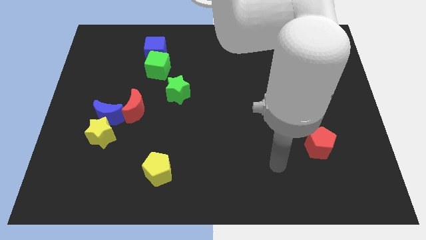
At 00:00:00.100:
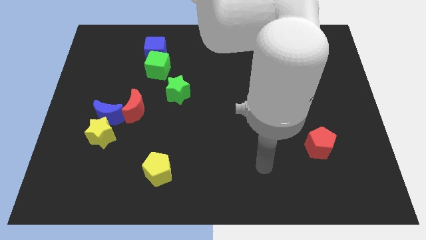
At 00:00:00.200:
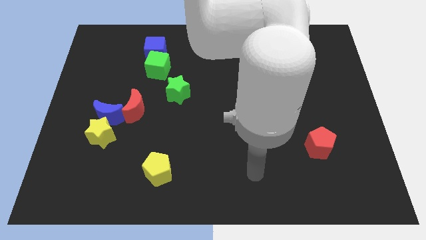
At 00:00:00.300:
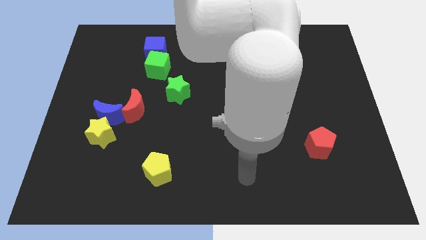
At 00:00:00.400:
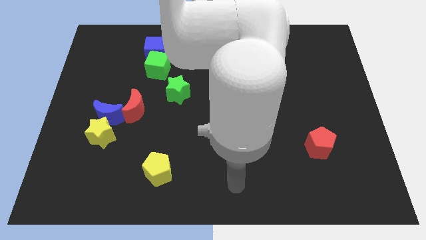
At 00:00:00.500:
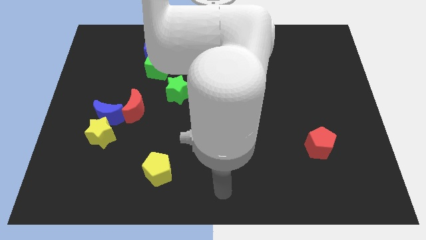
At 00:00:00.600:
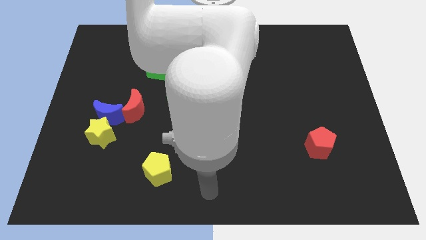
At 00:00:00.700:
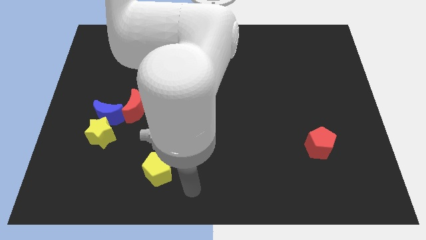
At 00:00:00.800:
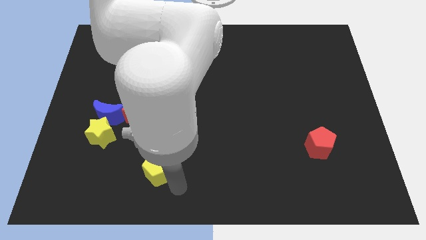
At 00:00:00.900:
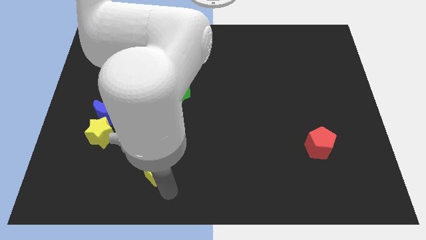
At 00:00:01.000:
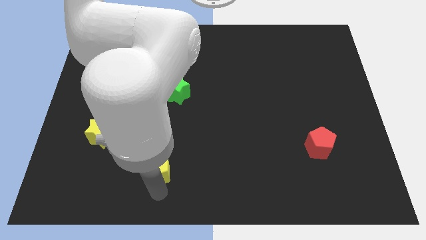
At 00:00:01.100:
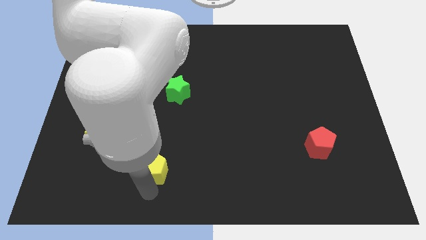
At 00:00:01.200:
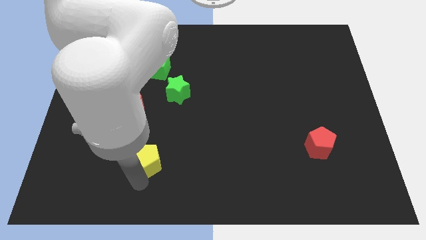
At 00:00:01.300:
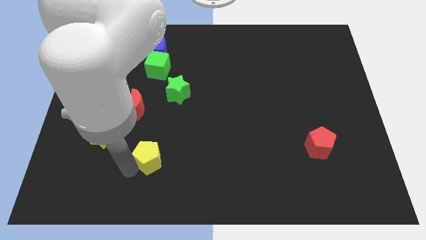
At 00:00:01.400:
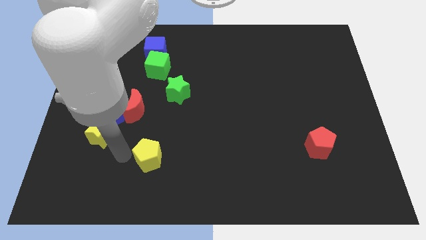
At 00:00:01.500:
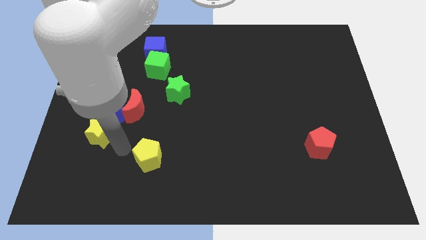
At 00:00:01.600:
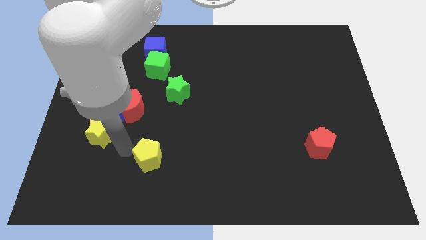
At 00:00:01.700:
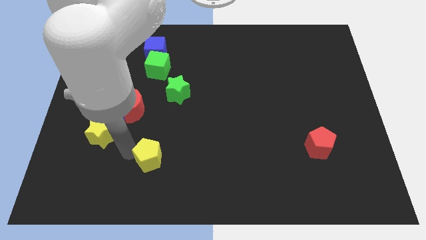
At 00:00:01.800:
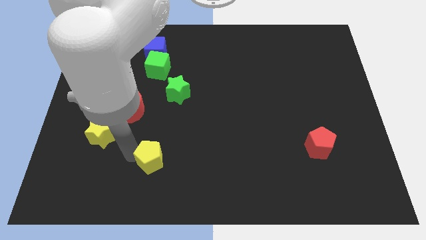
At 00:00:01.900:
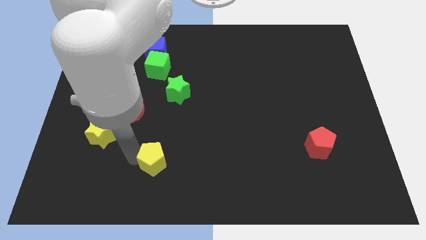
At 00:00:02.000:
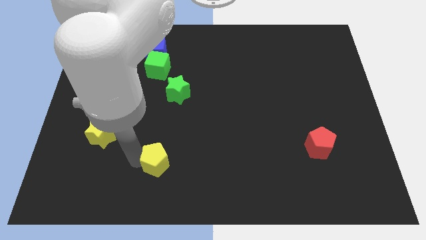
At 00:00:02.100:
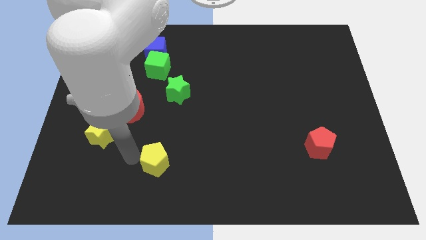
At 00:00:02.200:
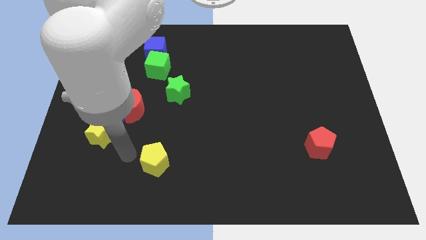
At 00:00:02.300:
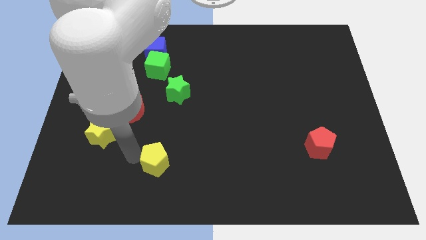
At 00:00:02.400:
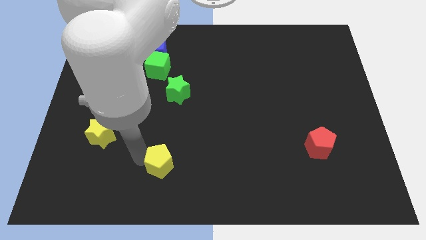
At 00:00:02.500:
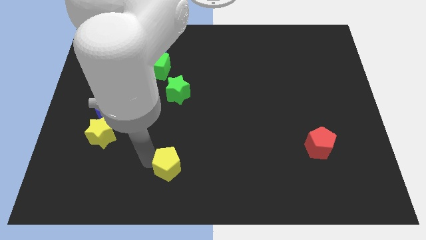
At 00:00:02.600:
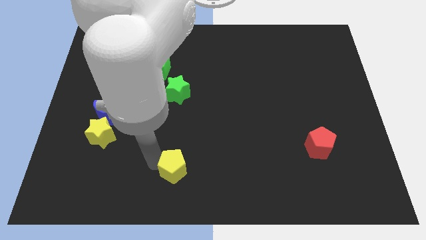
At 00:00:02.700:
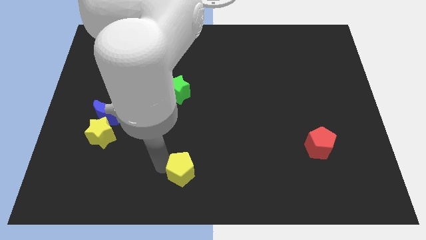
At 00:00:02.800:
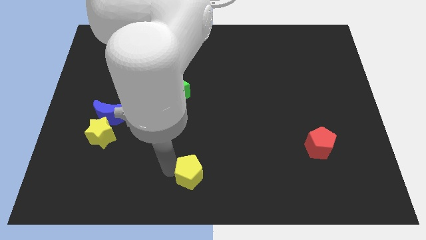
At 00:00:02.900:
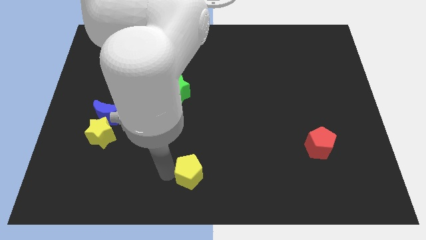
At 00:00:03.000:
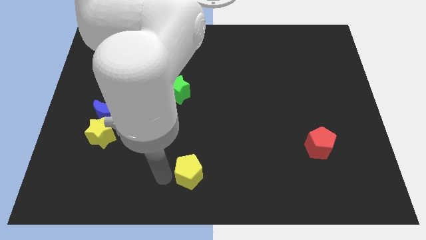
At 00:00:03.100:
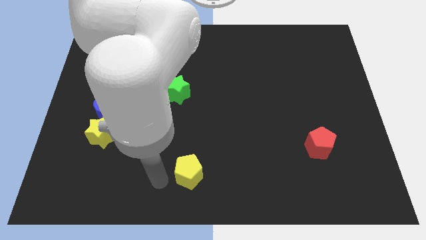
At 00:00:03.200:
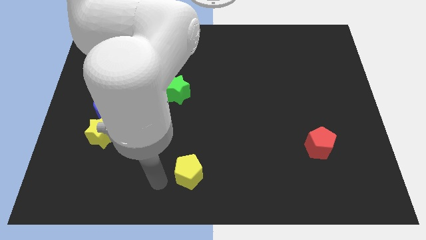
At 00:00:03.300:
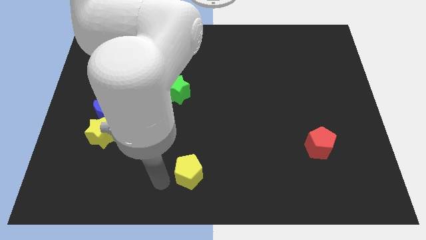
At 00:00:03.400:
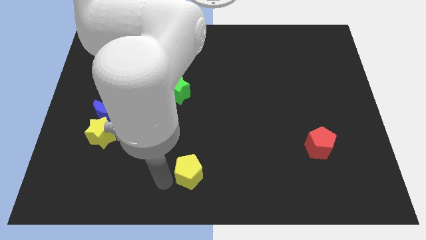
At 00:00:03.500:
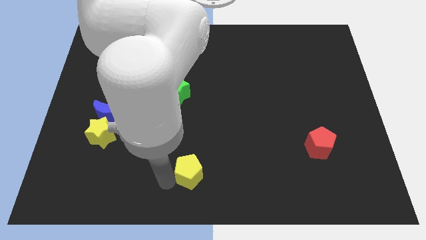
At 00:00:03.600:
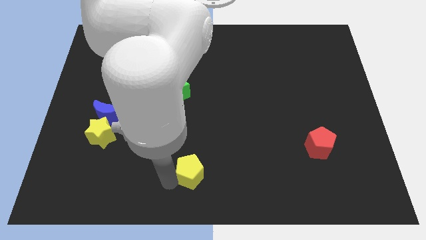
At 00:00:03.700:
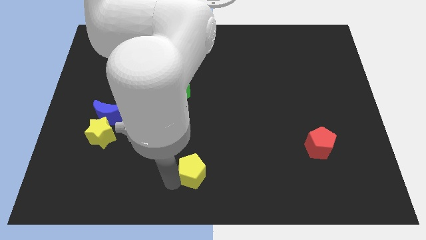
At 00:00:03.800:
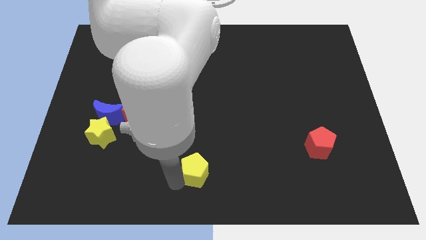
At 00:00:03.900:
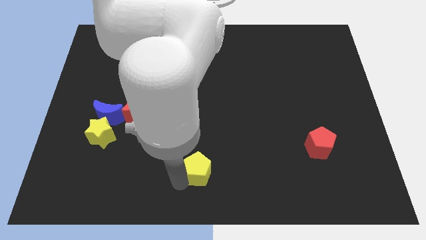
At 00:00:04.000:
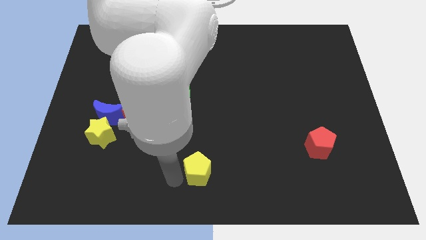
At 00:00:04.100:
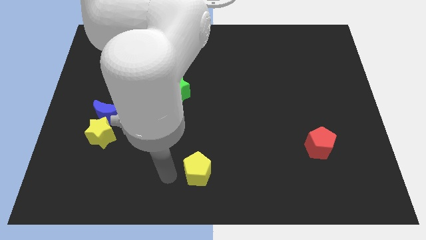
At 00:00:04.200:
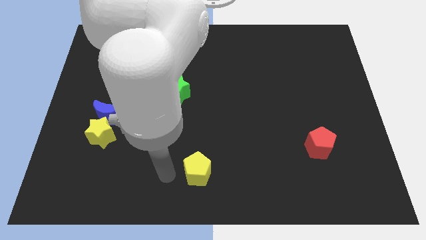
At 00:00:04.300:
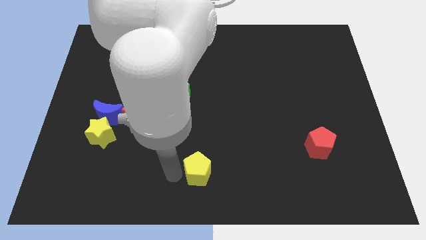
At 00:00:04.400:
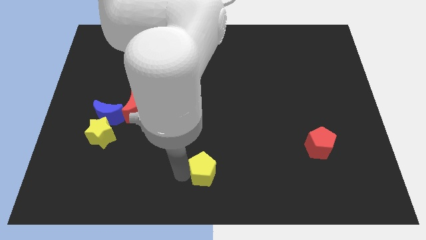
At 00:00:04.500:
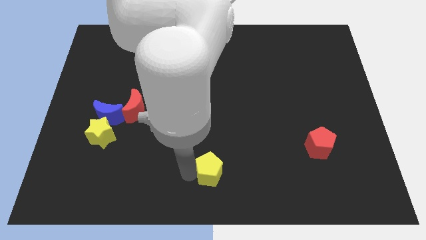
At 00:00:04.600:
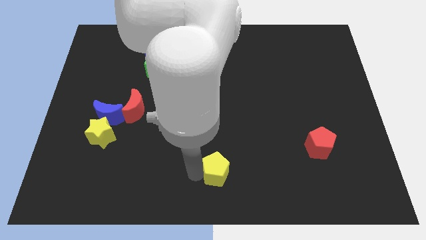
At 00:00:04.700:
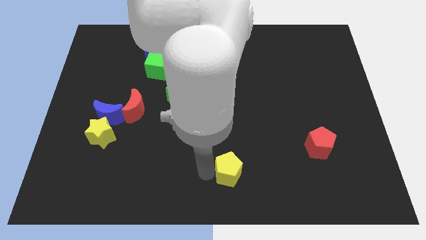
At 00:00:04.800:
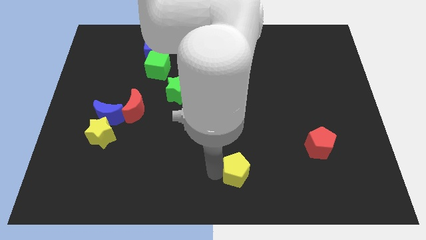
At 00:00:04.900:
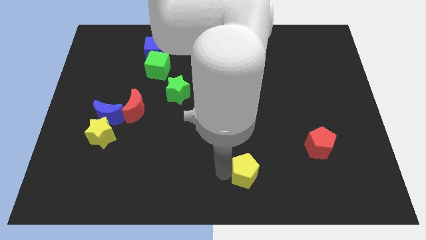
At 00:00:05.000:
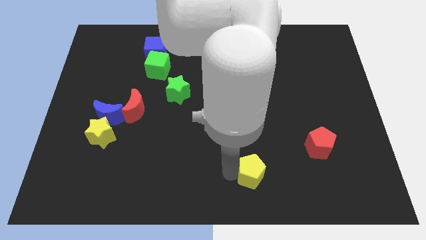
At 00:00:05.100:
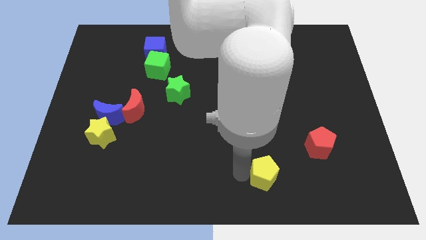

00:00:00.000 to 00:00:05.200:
push the yellow pentagon right

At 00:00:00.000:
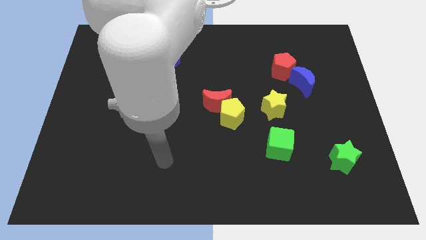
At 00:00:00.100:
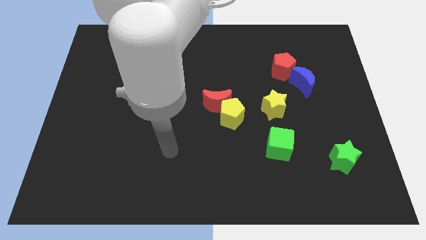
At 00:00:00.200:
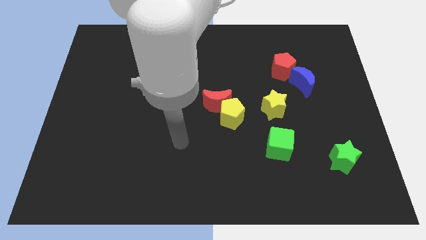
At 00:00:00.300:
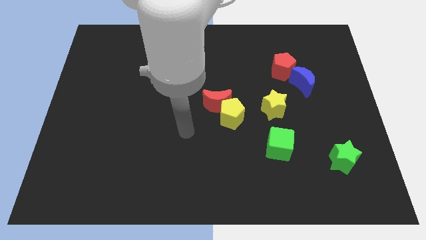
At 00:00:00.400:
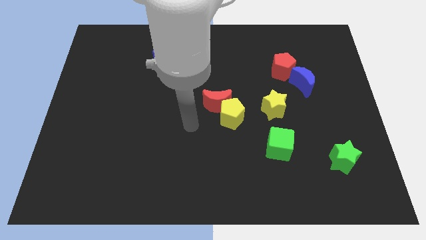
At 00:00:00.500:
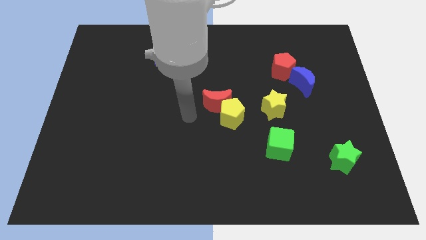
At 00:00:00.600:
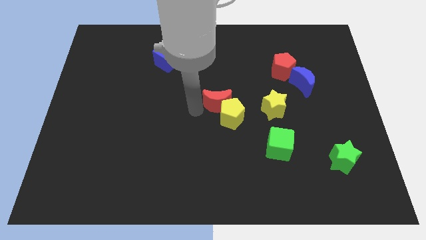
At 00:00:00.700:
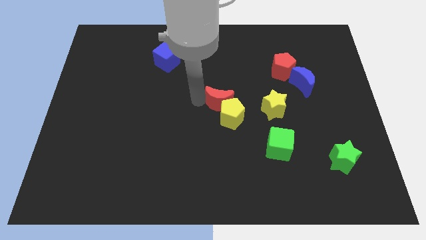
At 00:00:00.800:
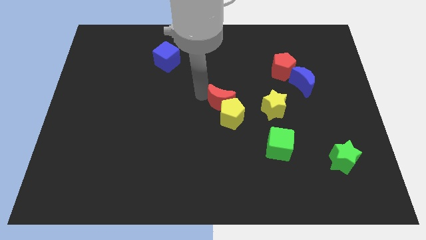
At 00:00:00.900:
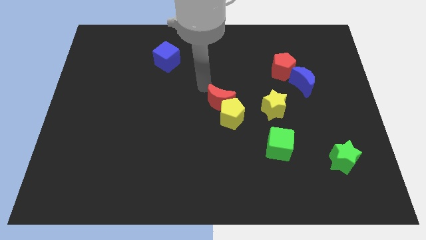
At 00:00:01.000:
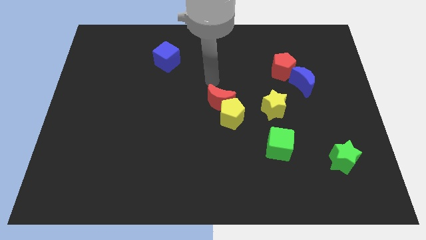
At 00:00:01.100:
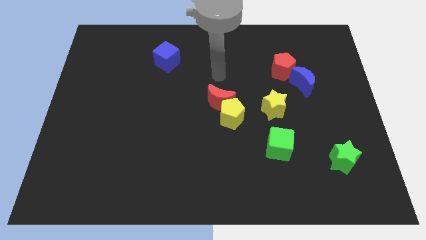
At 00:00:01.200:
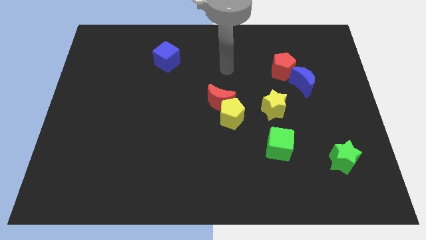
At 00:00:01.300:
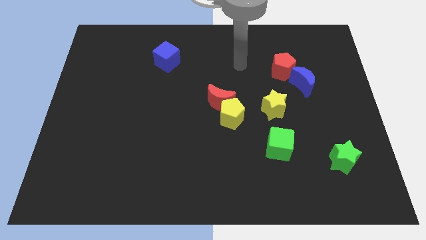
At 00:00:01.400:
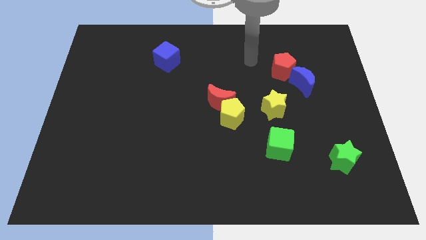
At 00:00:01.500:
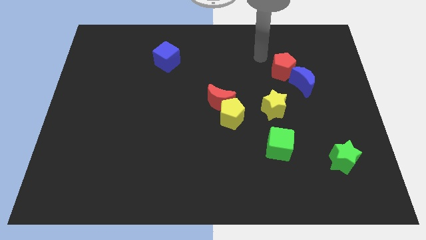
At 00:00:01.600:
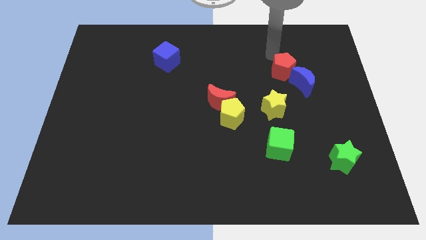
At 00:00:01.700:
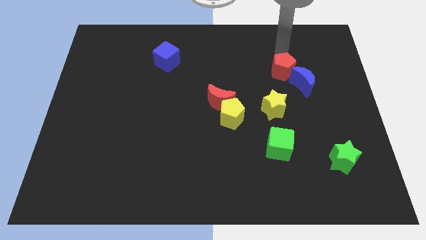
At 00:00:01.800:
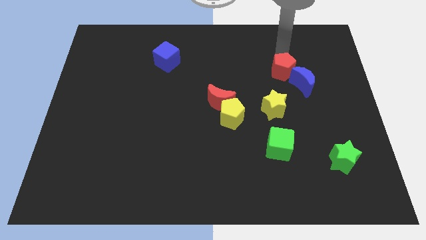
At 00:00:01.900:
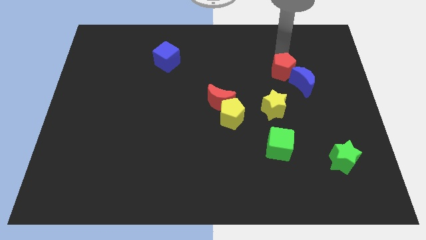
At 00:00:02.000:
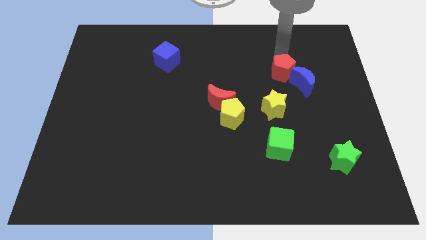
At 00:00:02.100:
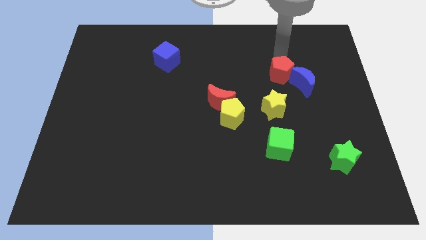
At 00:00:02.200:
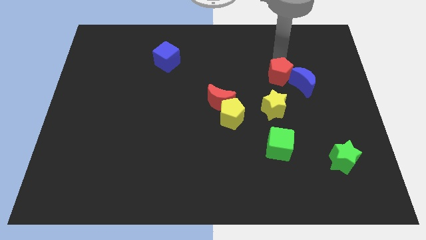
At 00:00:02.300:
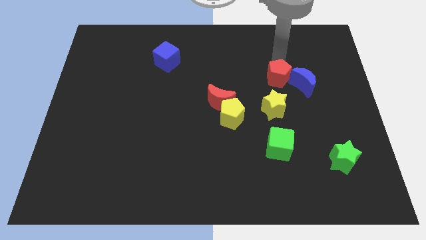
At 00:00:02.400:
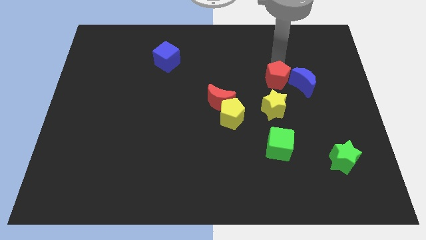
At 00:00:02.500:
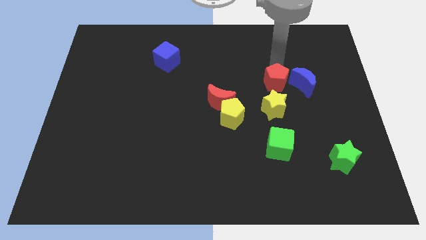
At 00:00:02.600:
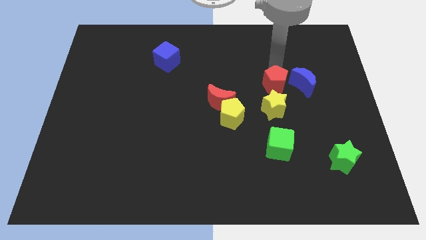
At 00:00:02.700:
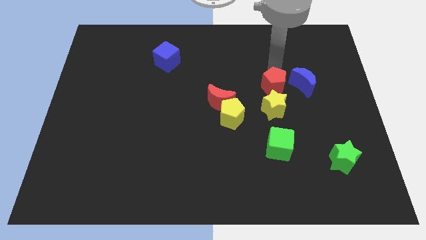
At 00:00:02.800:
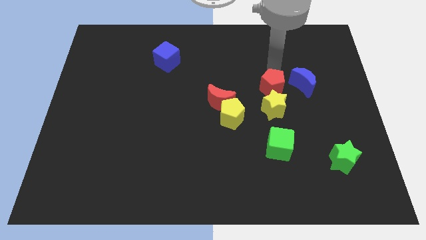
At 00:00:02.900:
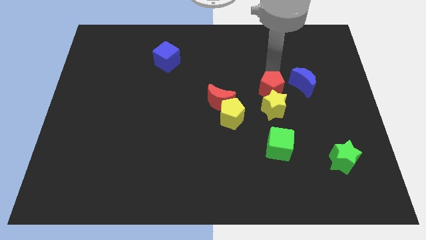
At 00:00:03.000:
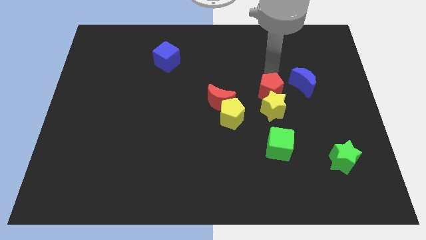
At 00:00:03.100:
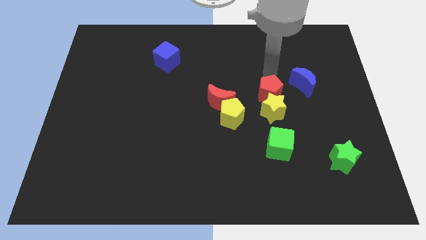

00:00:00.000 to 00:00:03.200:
slide the red pentagon downwards a bit
